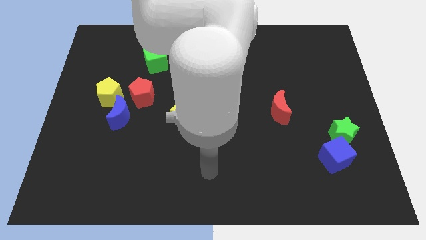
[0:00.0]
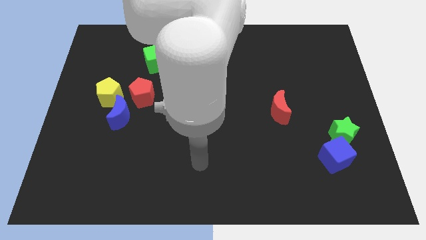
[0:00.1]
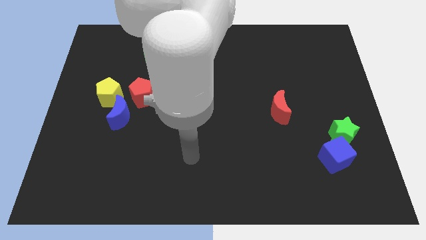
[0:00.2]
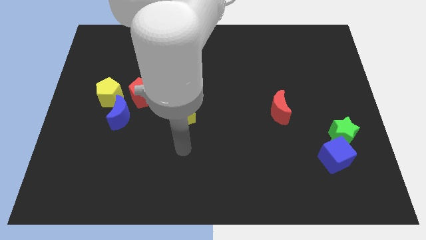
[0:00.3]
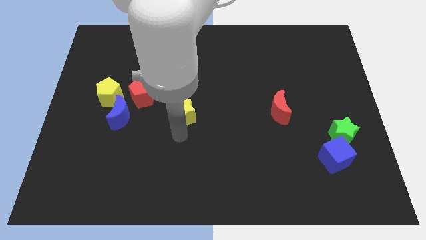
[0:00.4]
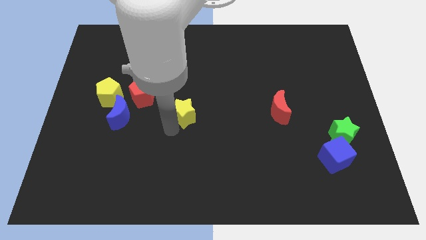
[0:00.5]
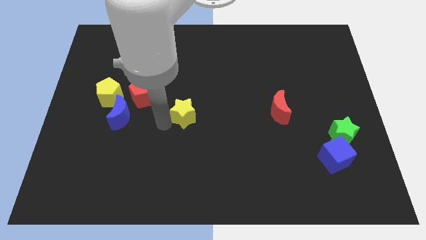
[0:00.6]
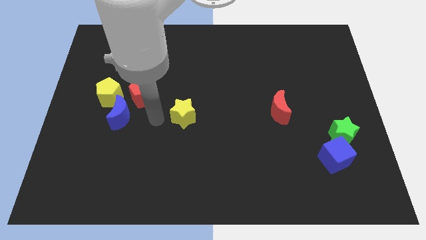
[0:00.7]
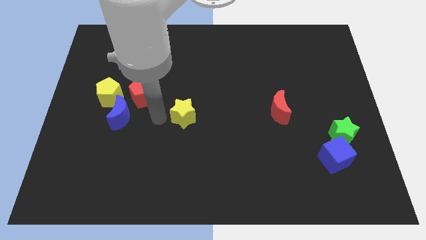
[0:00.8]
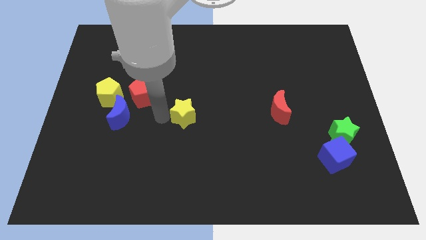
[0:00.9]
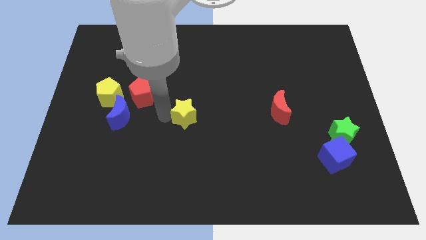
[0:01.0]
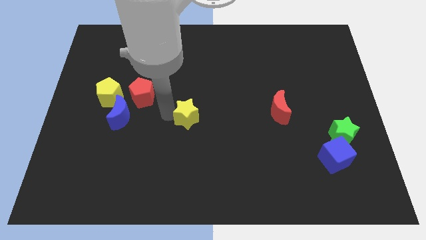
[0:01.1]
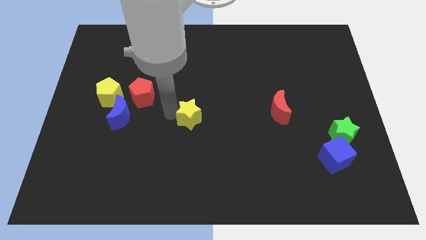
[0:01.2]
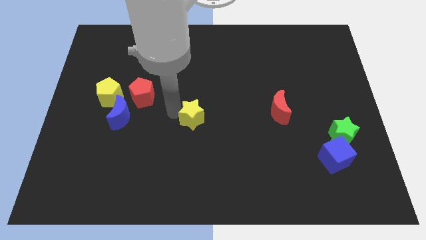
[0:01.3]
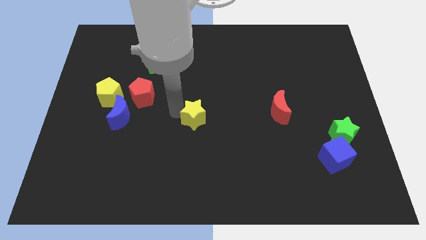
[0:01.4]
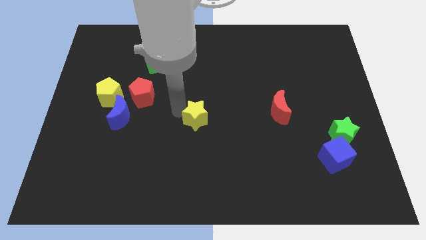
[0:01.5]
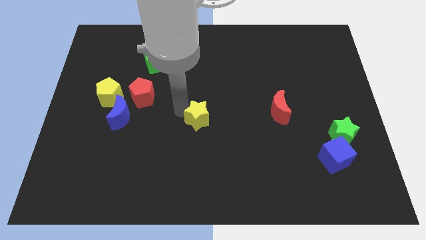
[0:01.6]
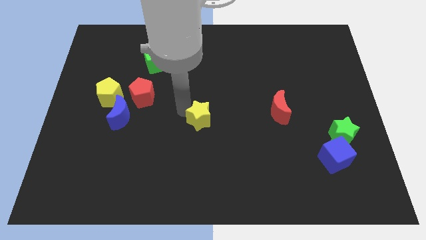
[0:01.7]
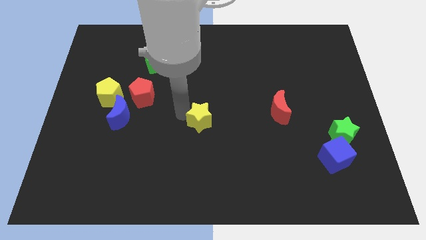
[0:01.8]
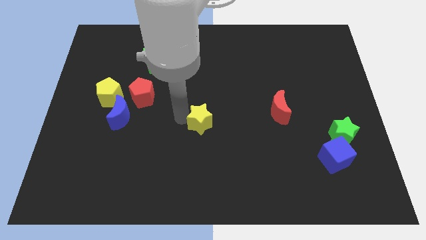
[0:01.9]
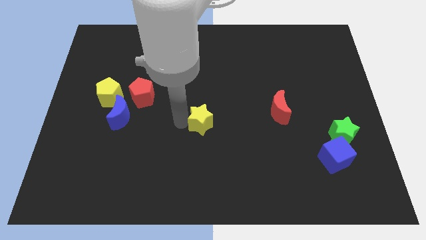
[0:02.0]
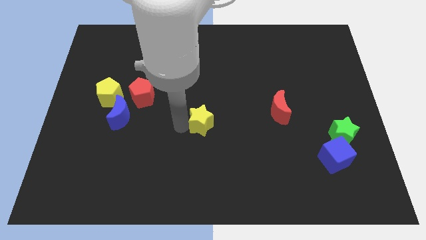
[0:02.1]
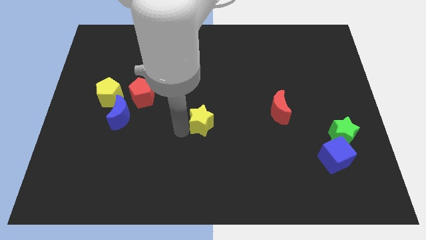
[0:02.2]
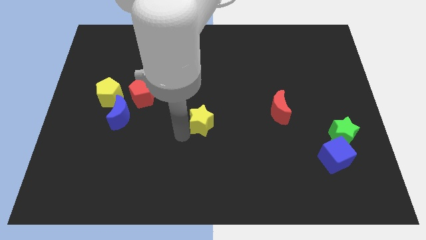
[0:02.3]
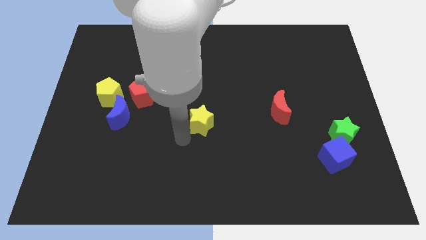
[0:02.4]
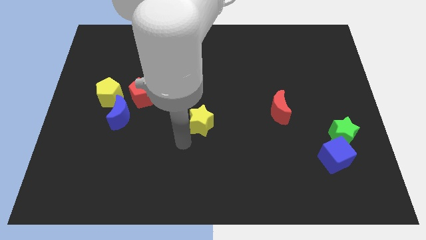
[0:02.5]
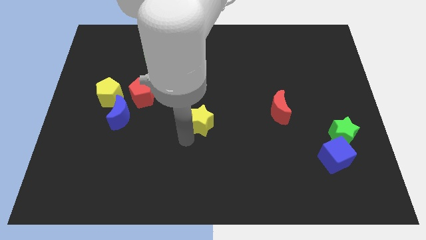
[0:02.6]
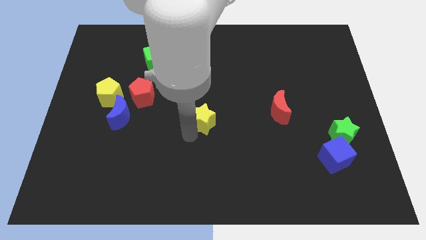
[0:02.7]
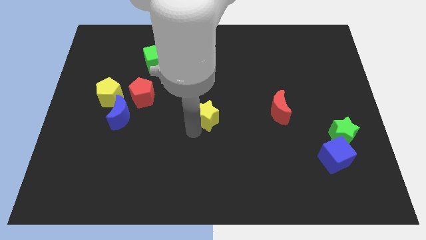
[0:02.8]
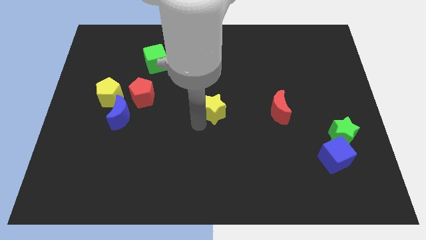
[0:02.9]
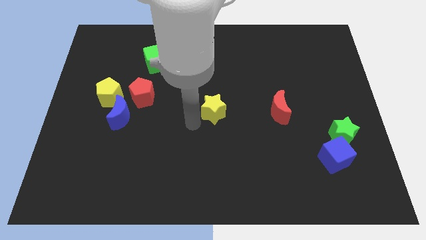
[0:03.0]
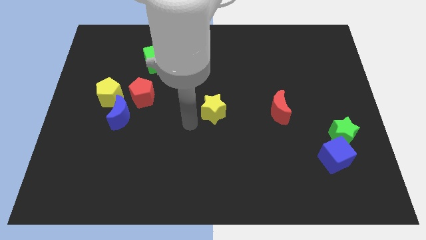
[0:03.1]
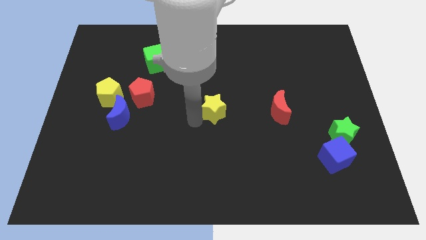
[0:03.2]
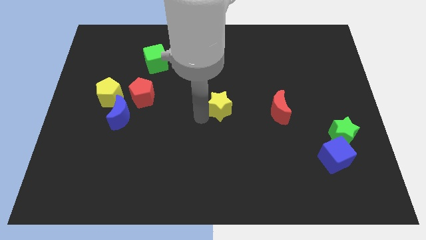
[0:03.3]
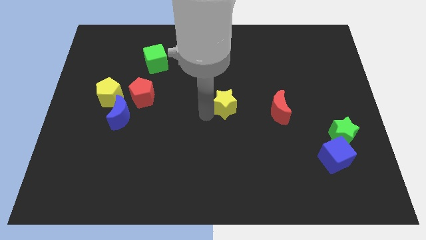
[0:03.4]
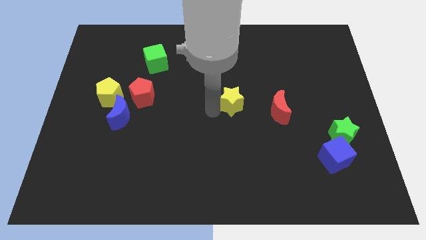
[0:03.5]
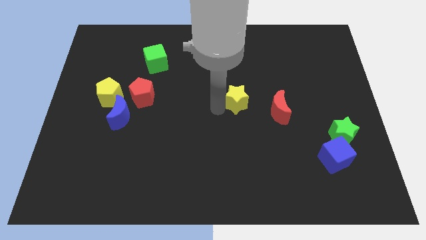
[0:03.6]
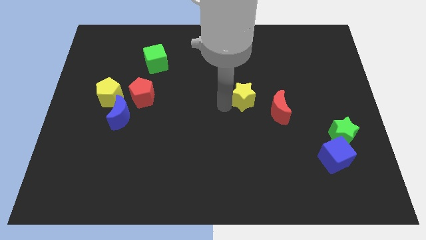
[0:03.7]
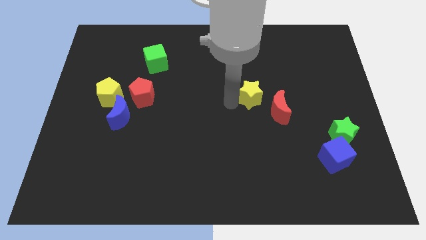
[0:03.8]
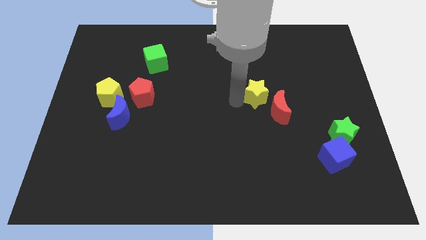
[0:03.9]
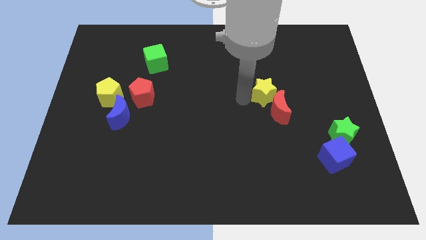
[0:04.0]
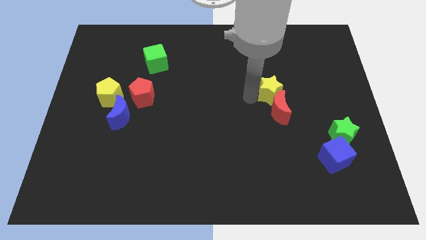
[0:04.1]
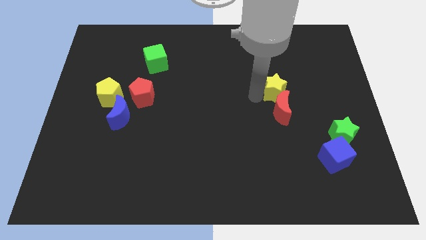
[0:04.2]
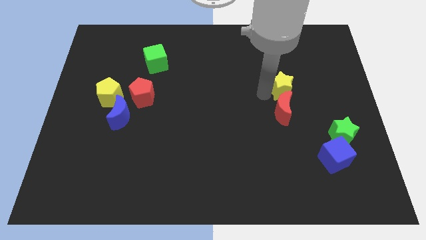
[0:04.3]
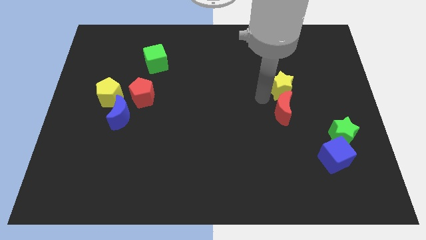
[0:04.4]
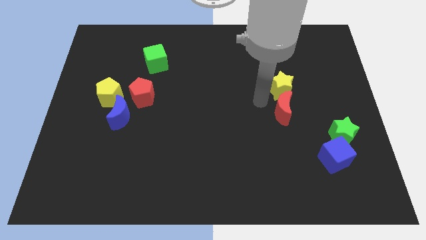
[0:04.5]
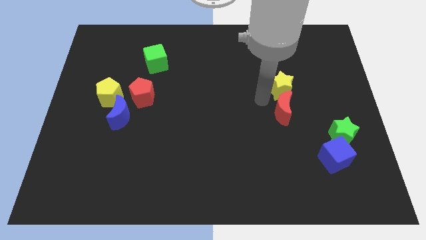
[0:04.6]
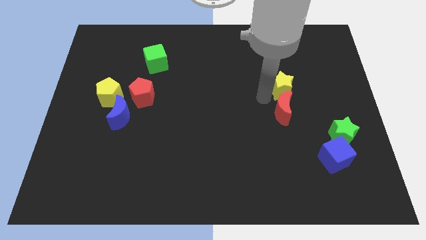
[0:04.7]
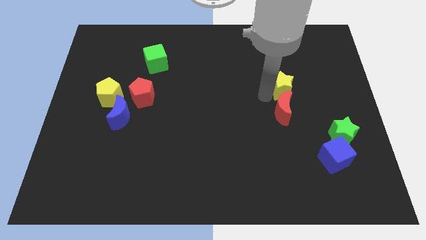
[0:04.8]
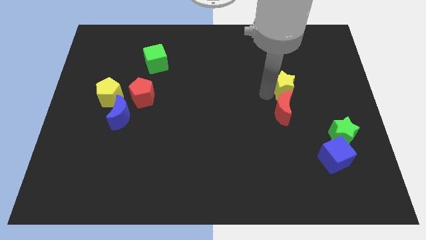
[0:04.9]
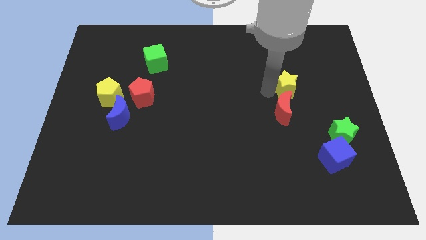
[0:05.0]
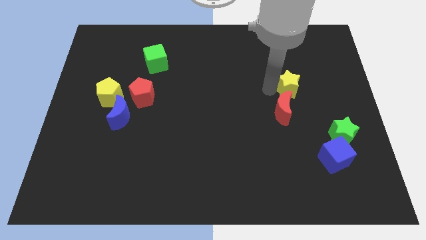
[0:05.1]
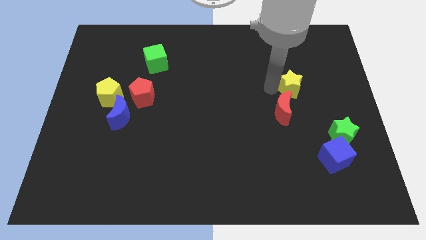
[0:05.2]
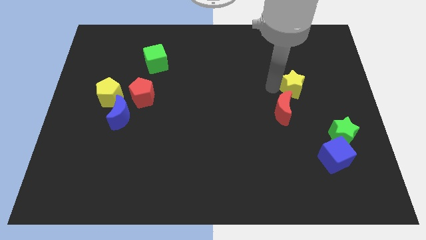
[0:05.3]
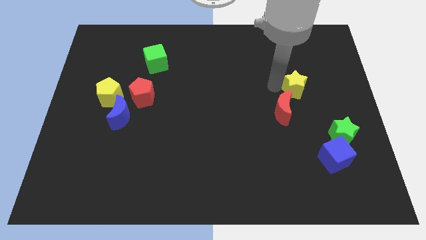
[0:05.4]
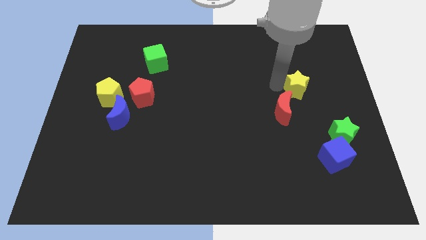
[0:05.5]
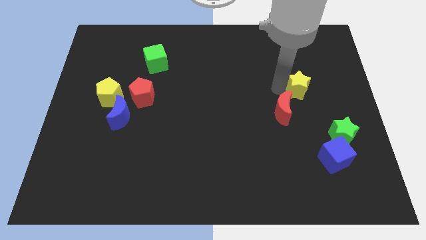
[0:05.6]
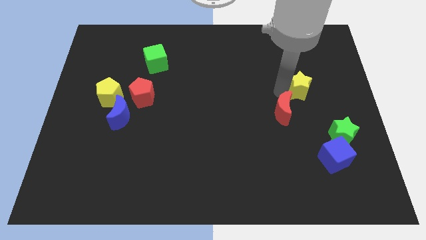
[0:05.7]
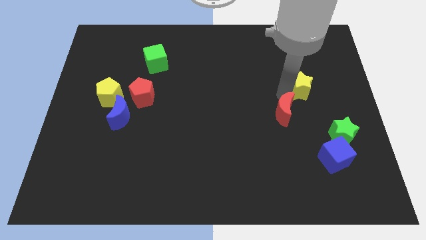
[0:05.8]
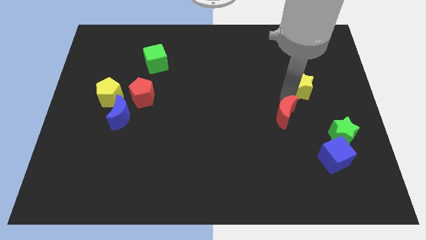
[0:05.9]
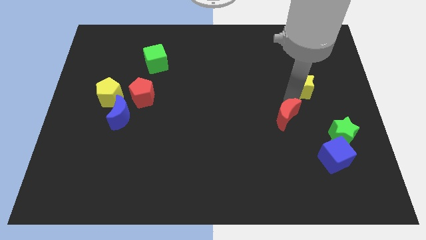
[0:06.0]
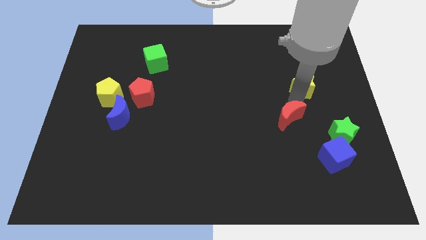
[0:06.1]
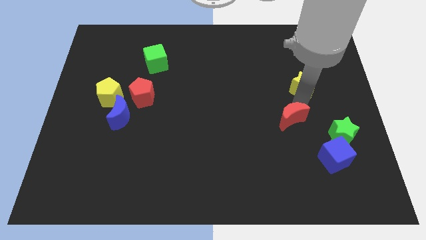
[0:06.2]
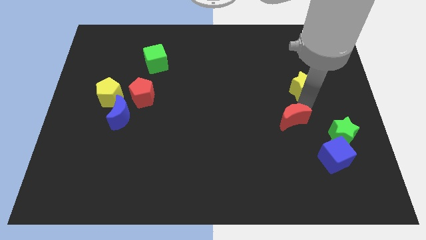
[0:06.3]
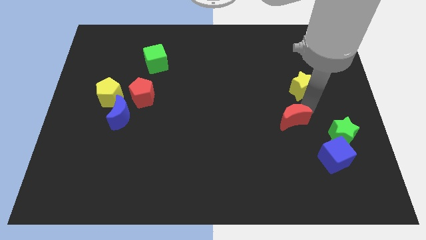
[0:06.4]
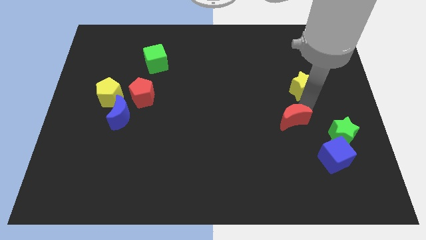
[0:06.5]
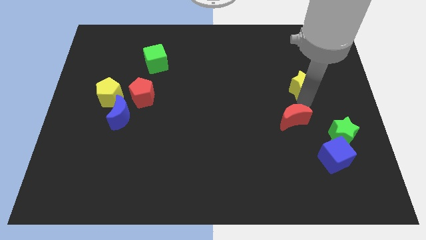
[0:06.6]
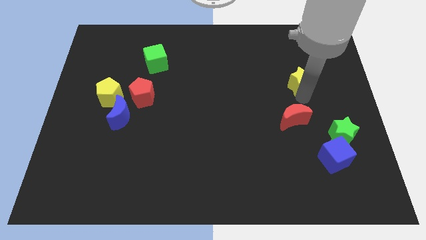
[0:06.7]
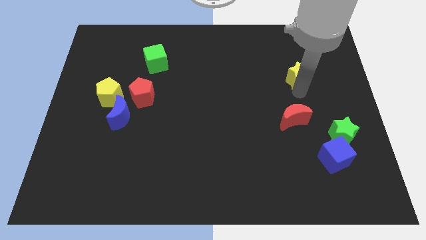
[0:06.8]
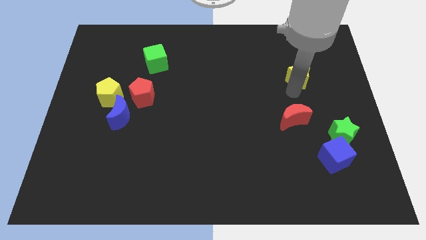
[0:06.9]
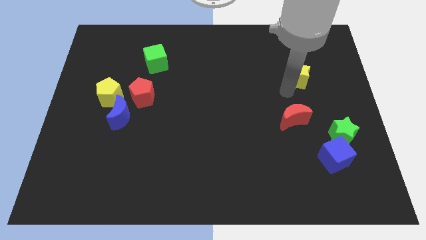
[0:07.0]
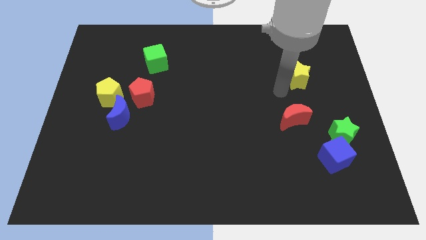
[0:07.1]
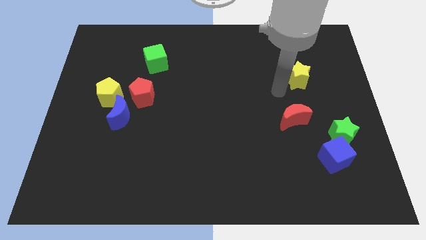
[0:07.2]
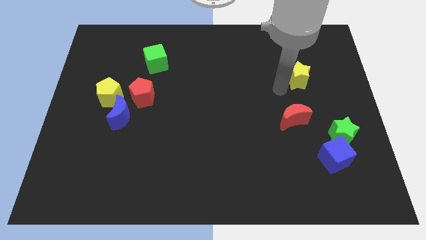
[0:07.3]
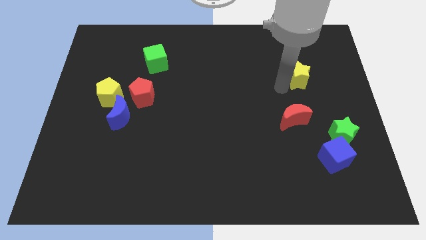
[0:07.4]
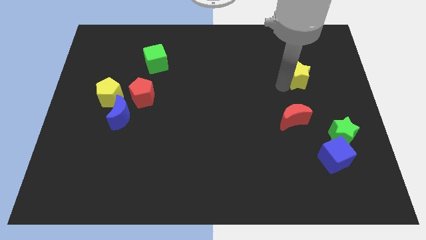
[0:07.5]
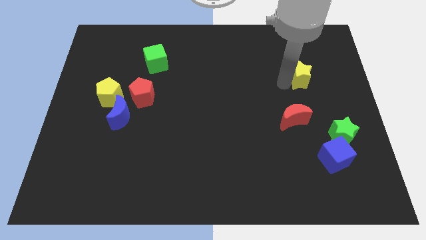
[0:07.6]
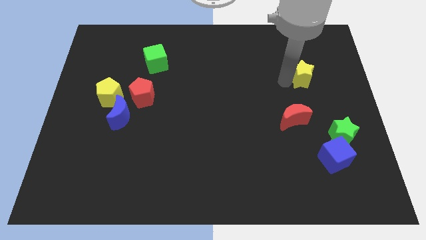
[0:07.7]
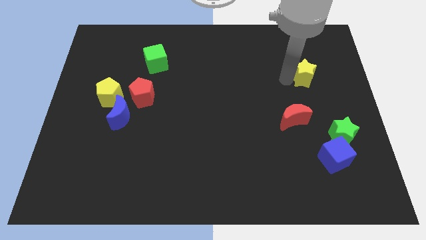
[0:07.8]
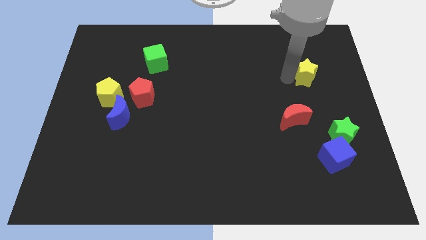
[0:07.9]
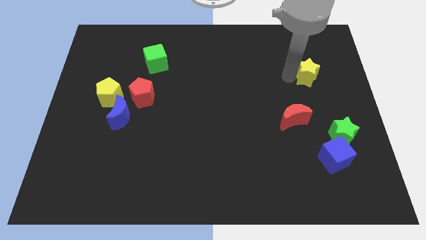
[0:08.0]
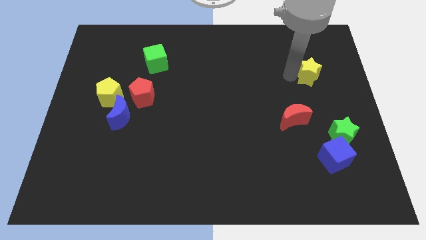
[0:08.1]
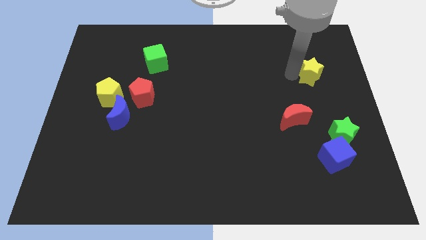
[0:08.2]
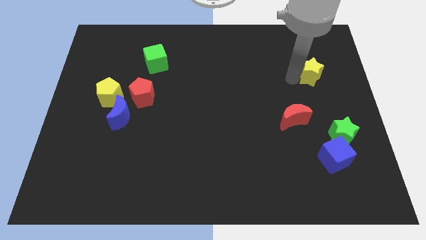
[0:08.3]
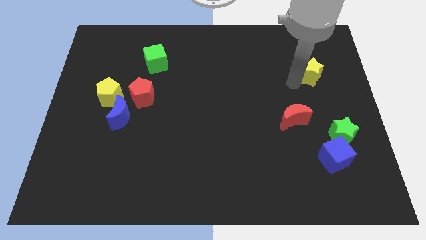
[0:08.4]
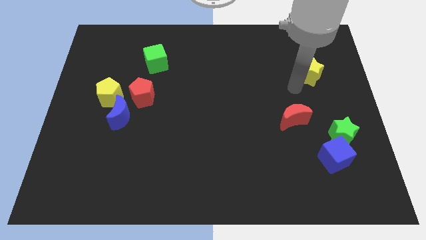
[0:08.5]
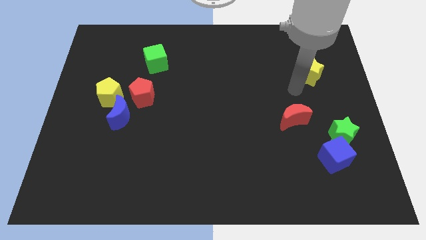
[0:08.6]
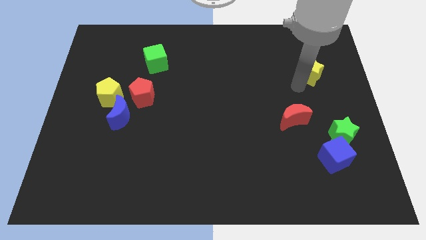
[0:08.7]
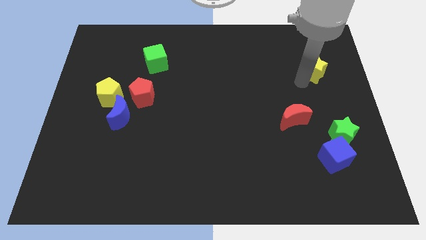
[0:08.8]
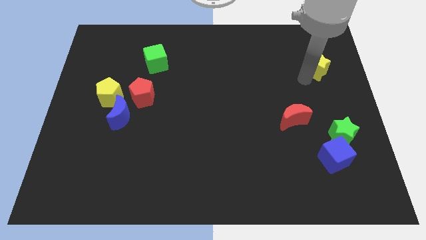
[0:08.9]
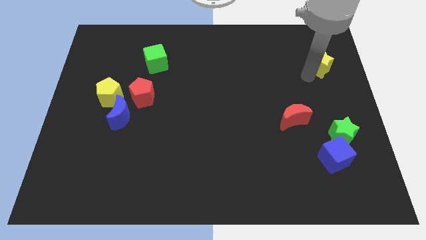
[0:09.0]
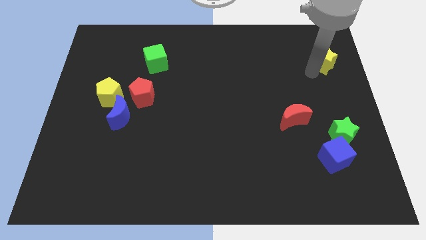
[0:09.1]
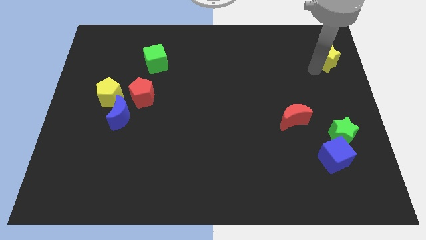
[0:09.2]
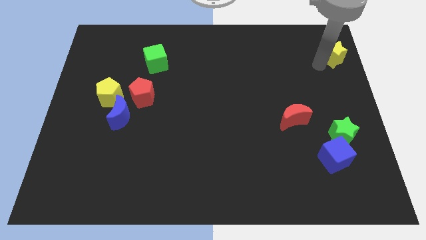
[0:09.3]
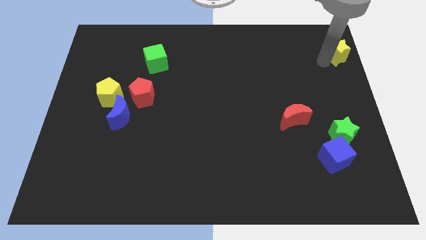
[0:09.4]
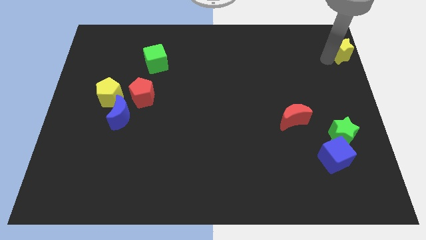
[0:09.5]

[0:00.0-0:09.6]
push the yellow star to the top right of the board
